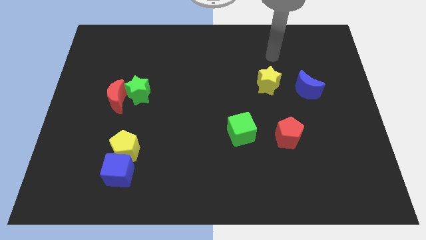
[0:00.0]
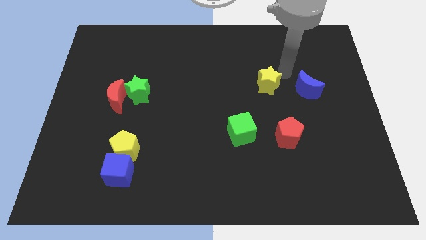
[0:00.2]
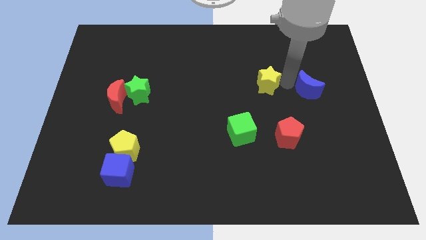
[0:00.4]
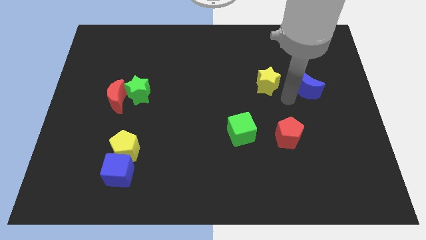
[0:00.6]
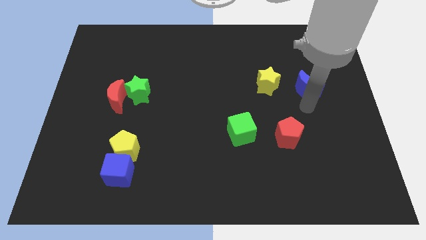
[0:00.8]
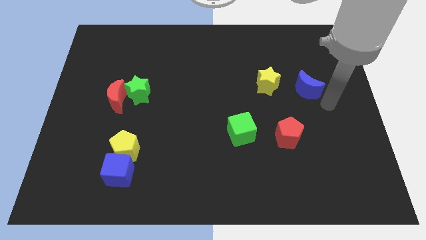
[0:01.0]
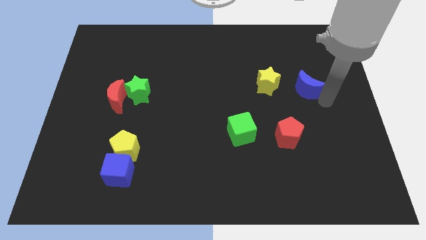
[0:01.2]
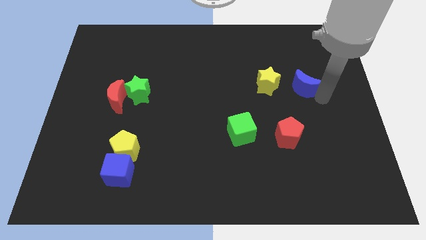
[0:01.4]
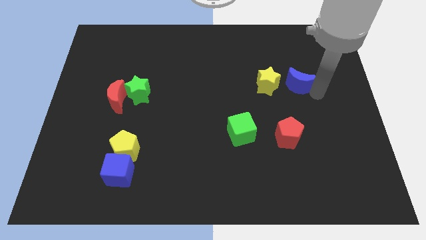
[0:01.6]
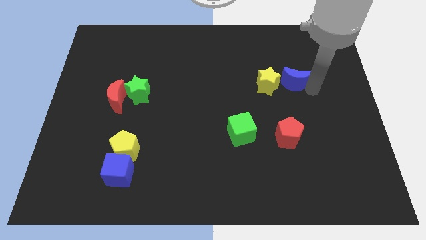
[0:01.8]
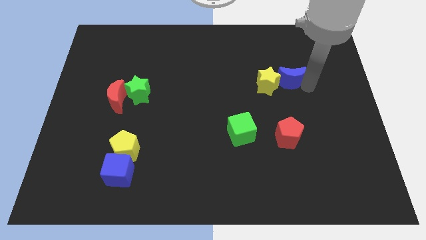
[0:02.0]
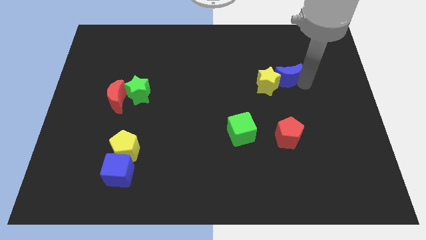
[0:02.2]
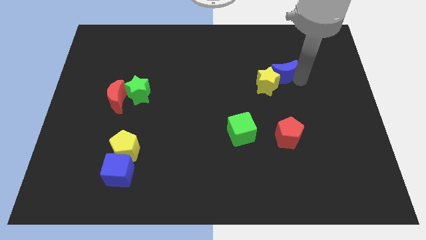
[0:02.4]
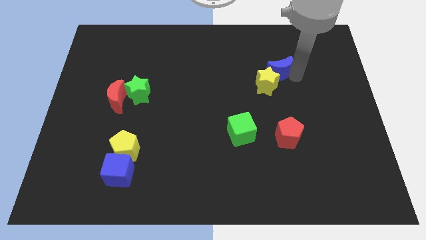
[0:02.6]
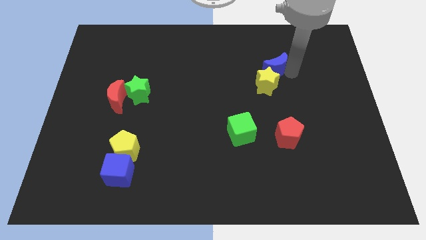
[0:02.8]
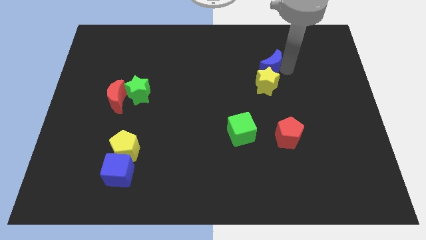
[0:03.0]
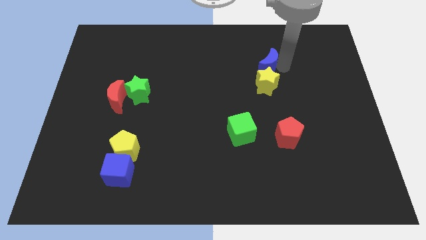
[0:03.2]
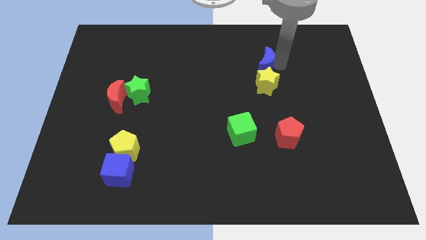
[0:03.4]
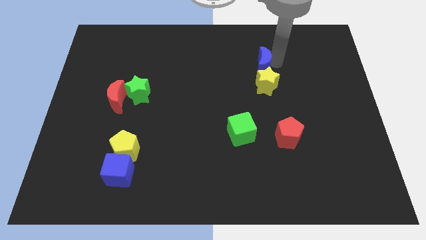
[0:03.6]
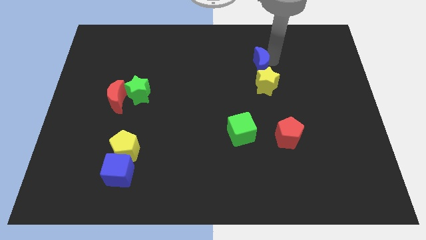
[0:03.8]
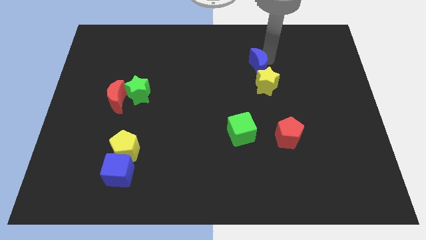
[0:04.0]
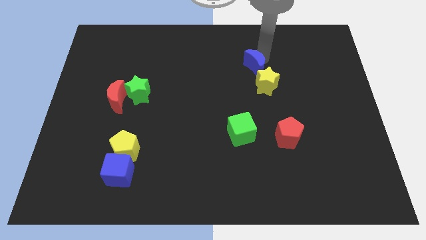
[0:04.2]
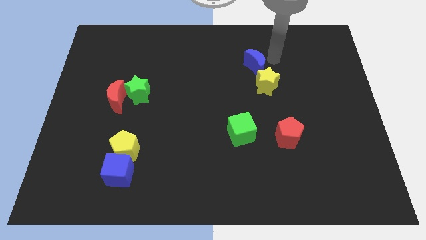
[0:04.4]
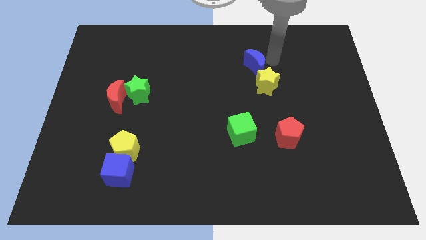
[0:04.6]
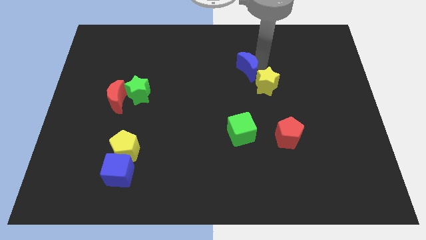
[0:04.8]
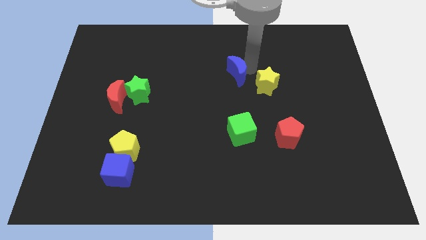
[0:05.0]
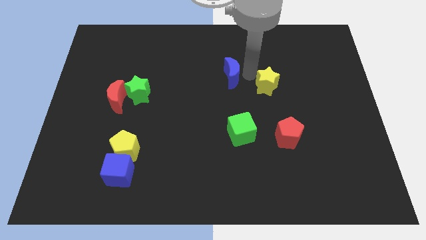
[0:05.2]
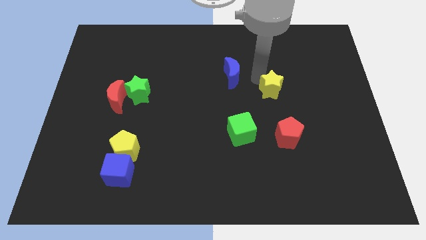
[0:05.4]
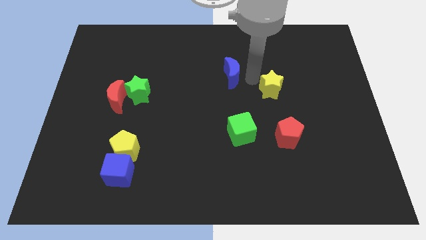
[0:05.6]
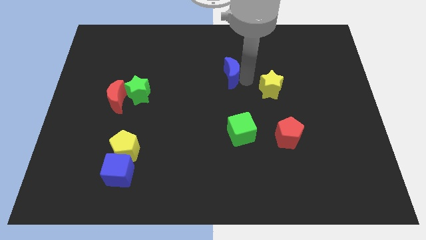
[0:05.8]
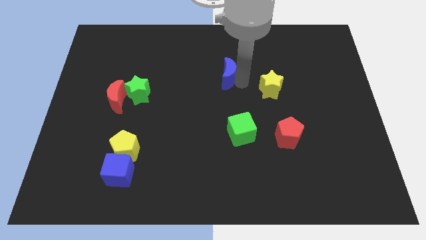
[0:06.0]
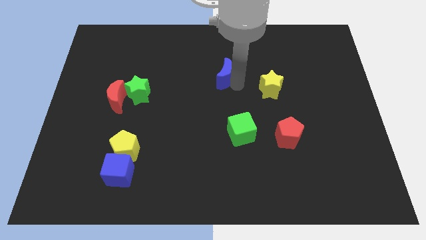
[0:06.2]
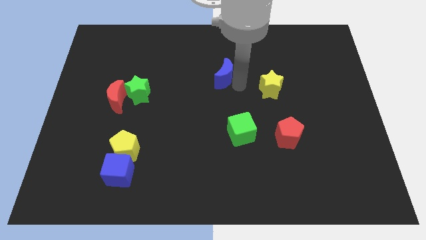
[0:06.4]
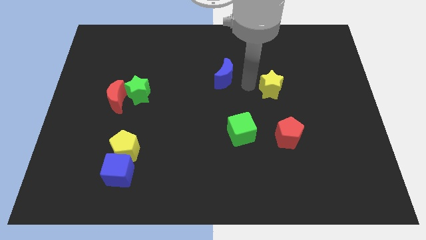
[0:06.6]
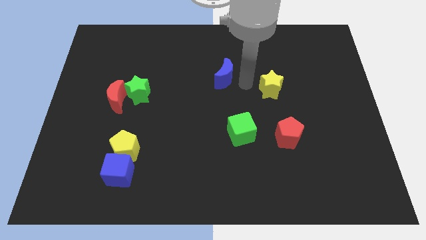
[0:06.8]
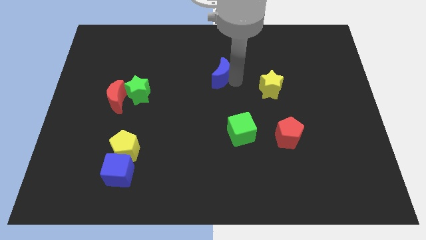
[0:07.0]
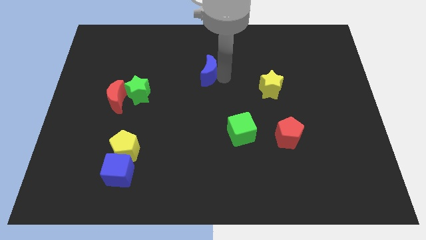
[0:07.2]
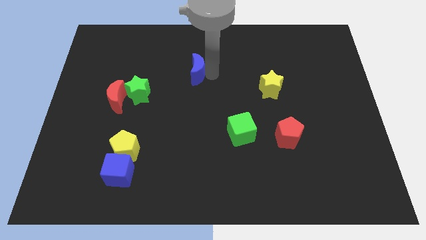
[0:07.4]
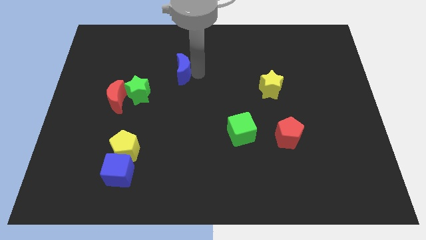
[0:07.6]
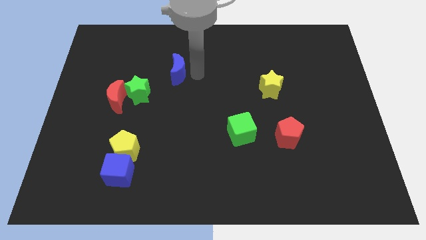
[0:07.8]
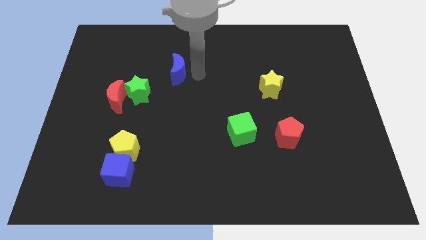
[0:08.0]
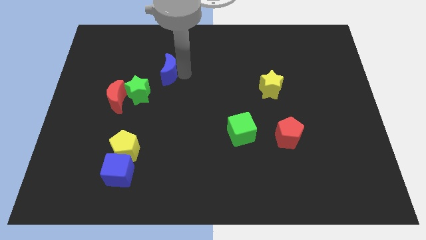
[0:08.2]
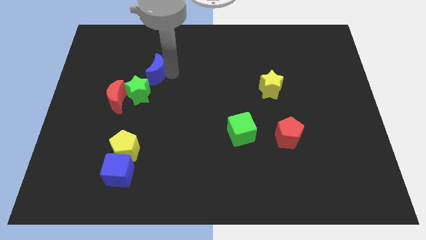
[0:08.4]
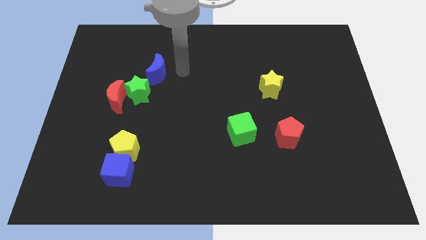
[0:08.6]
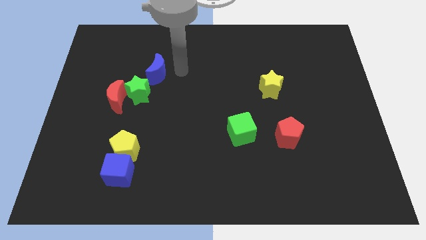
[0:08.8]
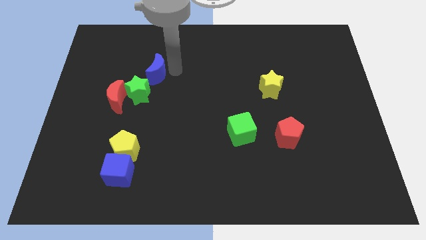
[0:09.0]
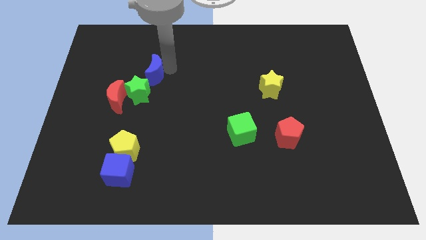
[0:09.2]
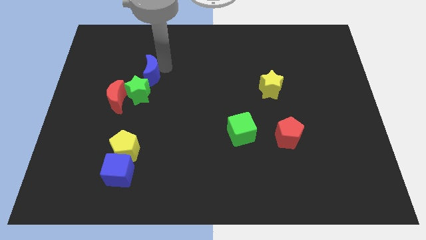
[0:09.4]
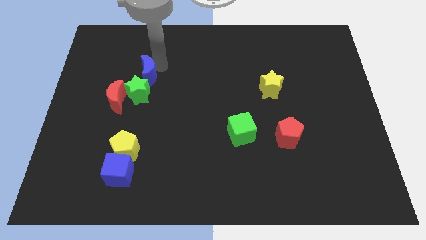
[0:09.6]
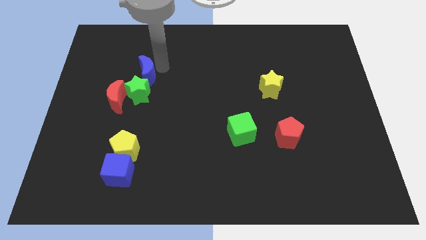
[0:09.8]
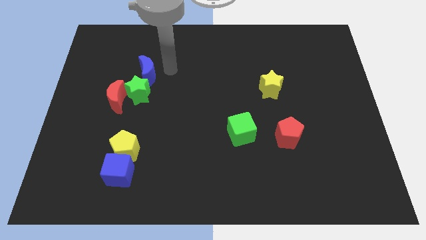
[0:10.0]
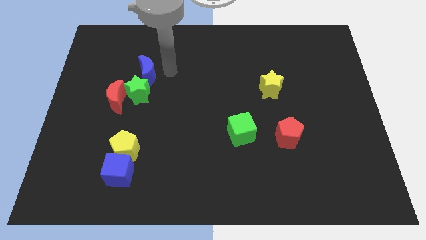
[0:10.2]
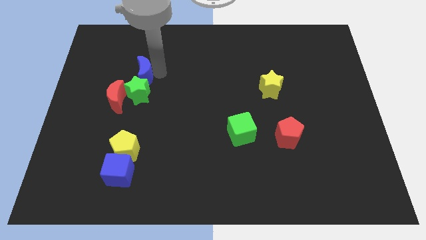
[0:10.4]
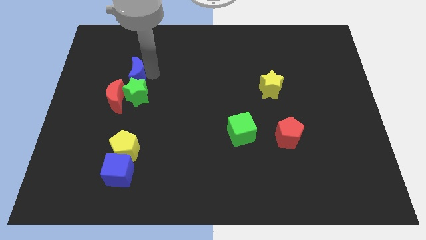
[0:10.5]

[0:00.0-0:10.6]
slide the blue moon to the top left of the green star

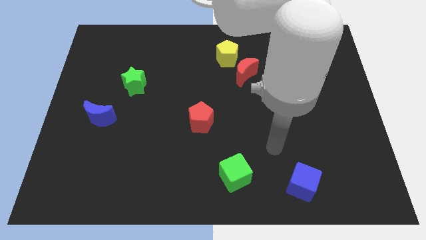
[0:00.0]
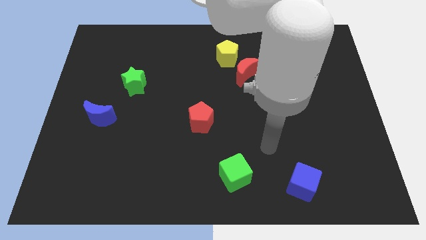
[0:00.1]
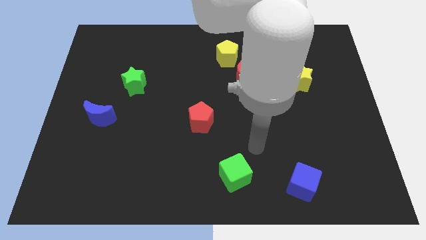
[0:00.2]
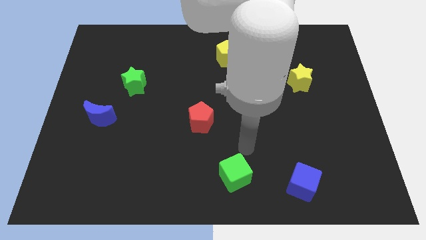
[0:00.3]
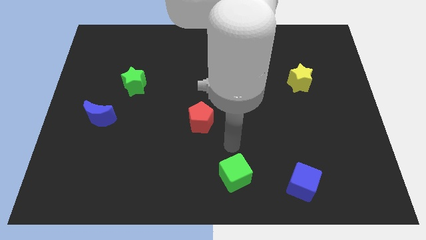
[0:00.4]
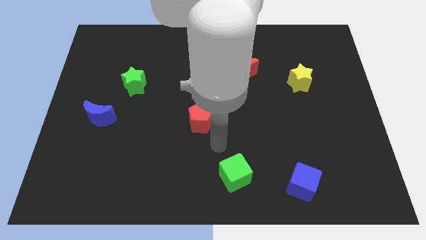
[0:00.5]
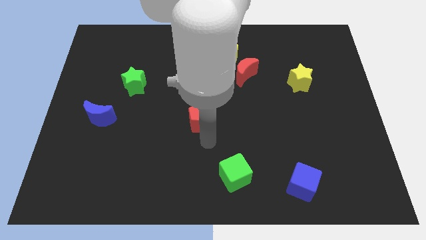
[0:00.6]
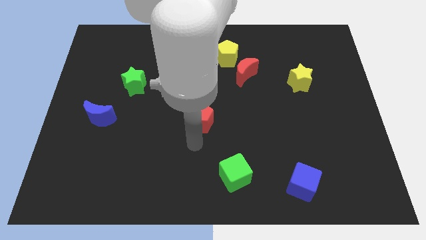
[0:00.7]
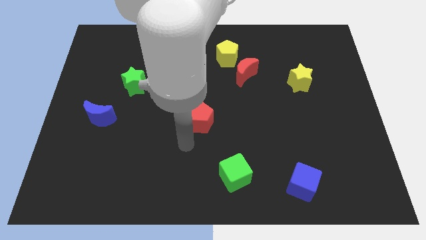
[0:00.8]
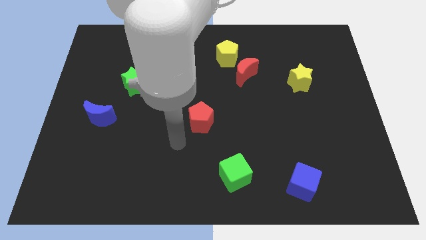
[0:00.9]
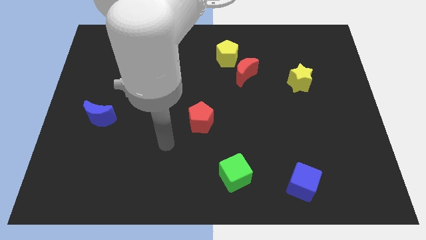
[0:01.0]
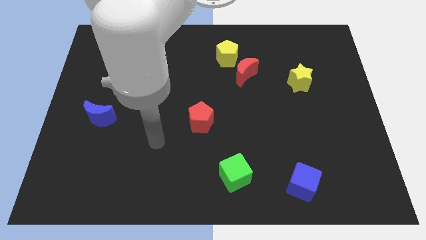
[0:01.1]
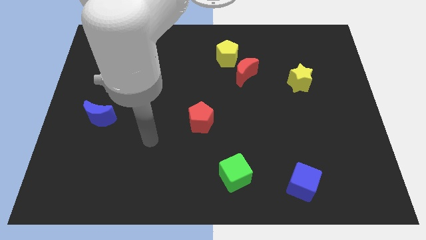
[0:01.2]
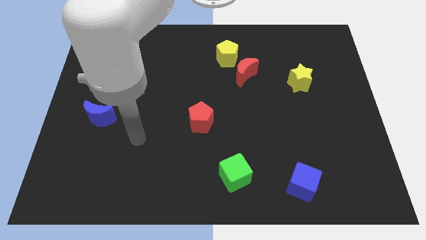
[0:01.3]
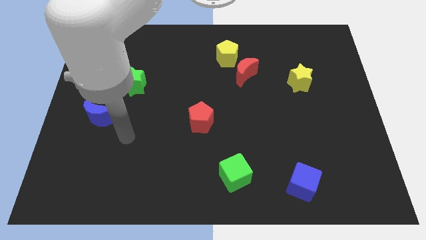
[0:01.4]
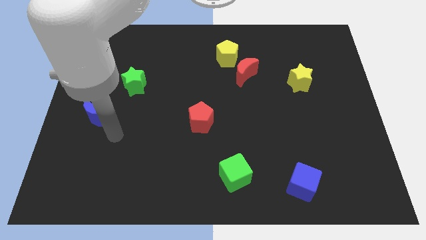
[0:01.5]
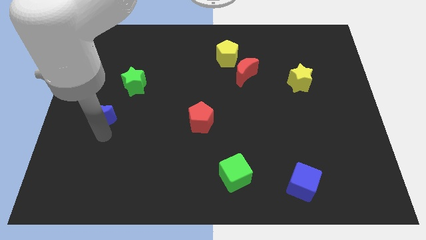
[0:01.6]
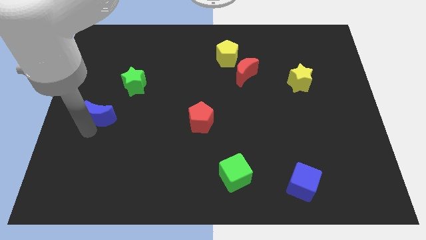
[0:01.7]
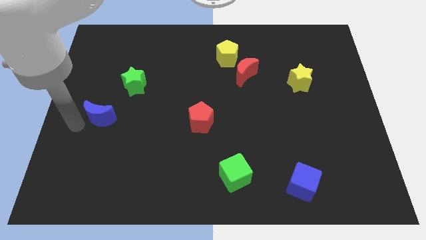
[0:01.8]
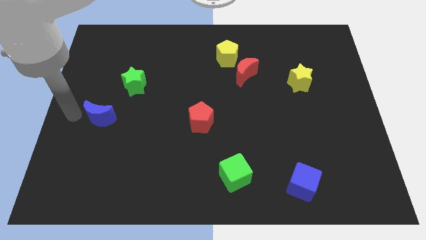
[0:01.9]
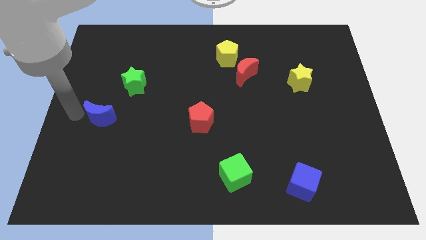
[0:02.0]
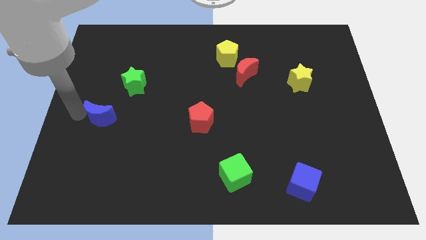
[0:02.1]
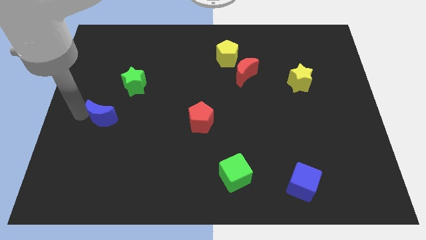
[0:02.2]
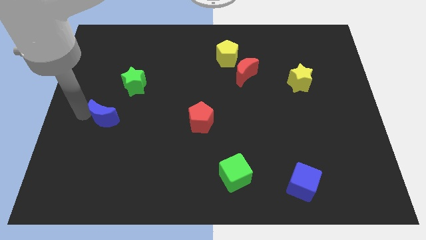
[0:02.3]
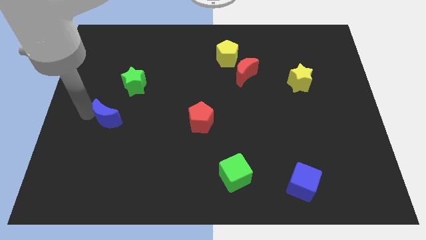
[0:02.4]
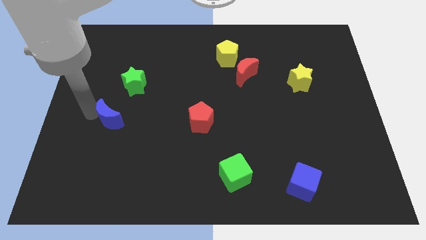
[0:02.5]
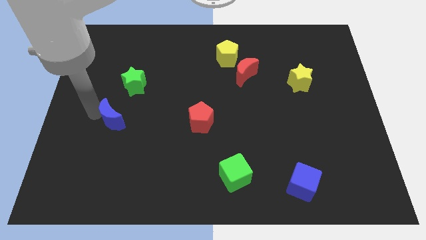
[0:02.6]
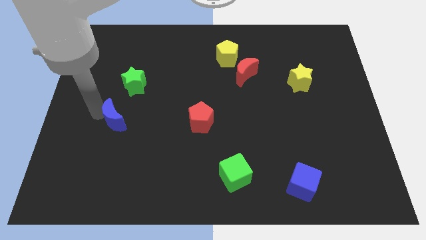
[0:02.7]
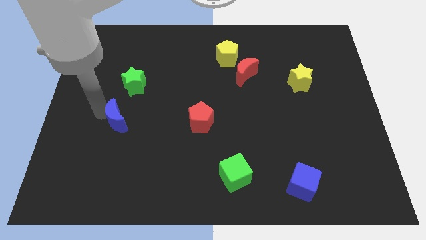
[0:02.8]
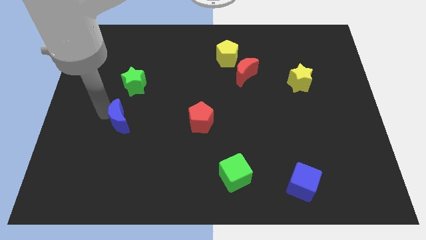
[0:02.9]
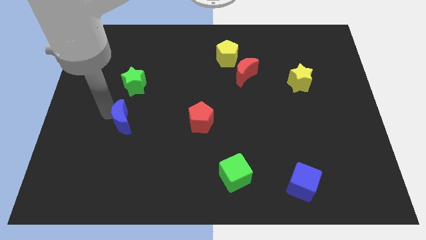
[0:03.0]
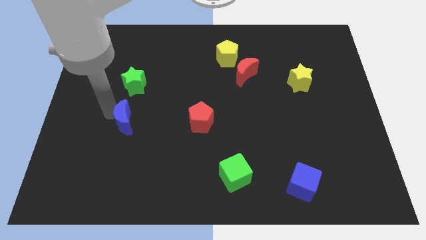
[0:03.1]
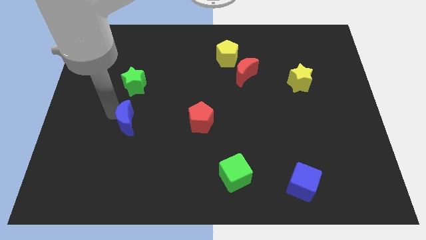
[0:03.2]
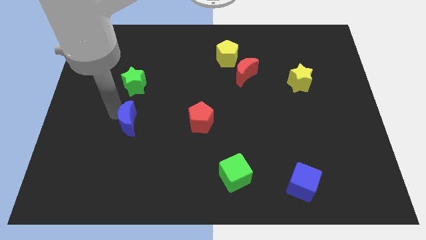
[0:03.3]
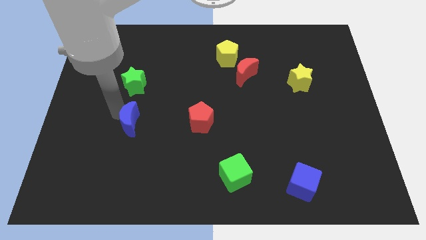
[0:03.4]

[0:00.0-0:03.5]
slide the blue moon to the left side of the red pentagon
